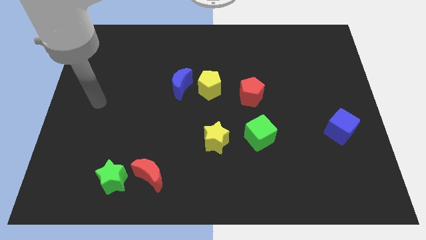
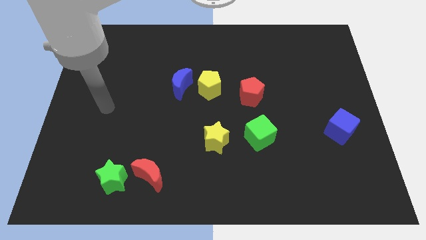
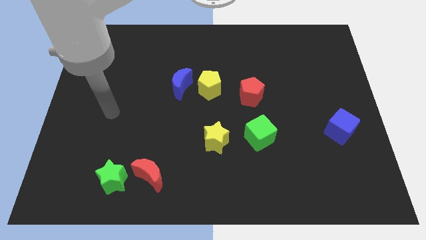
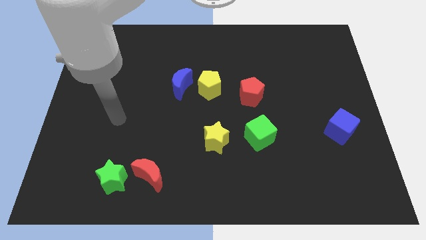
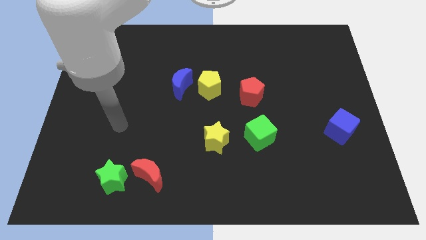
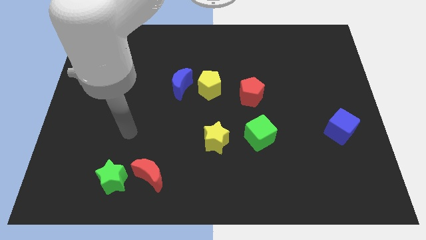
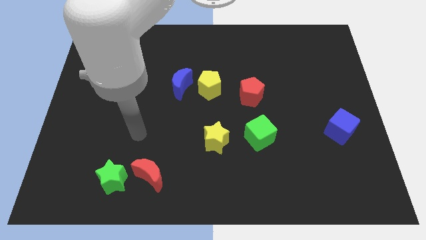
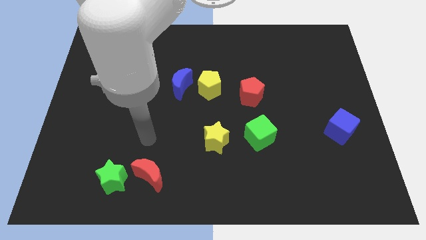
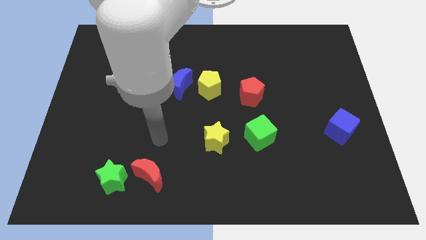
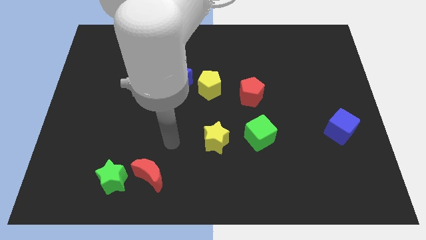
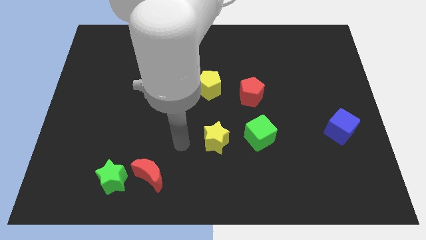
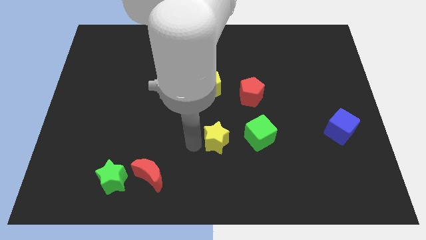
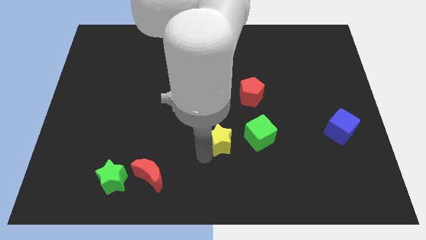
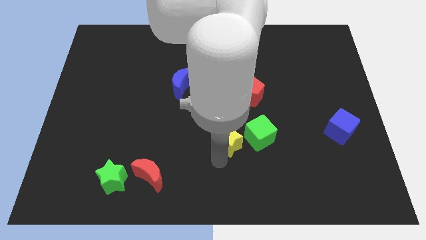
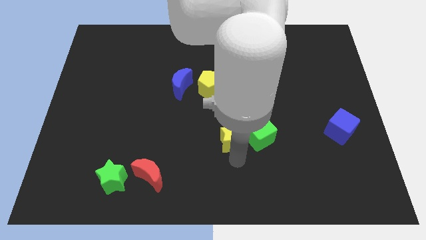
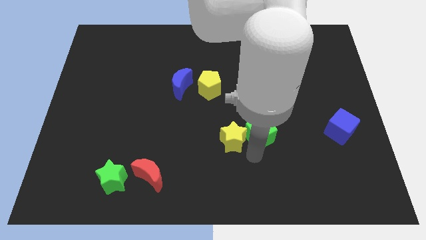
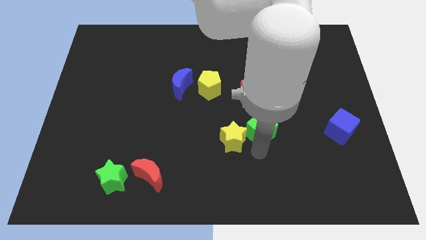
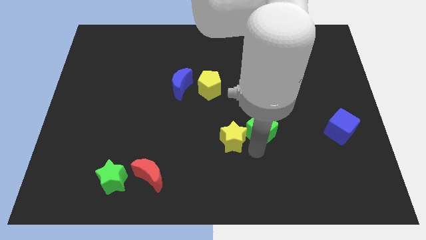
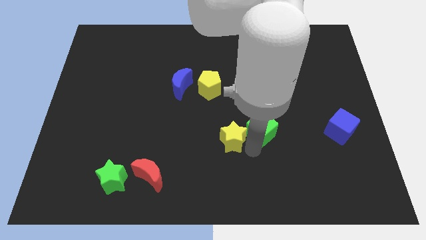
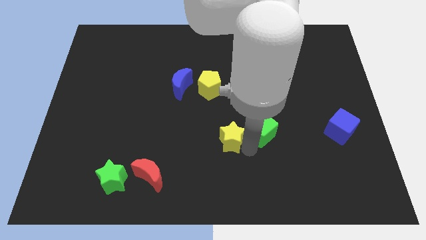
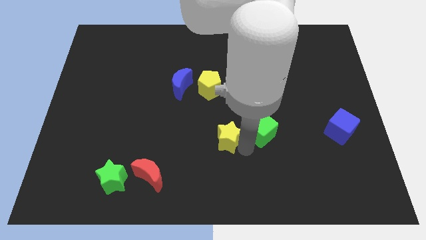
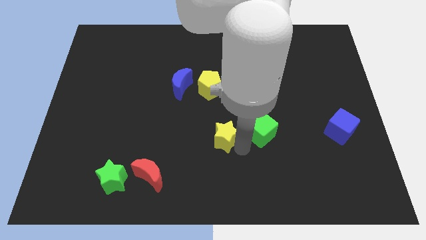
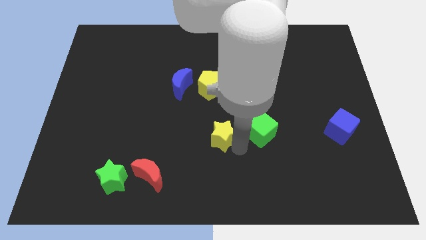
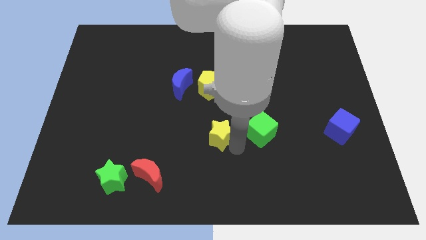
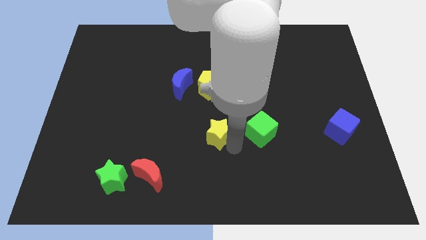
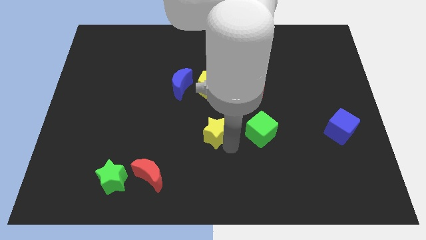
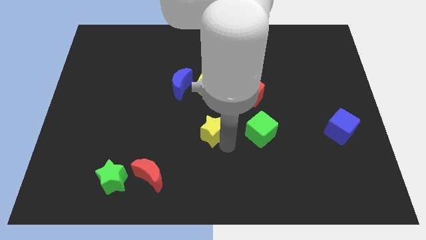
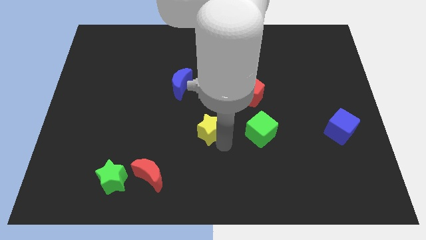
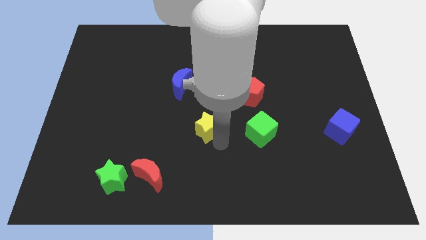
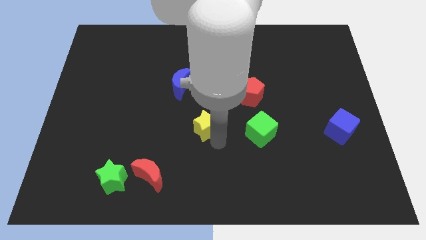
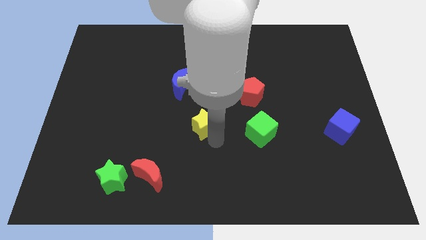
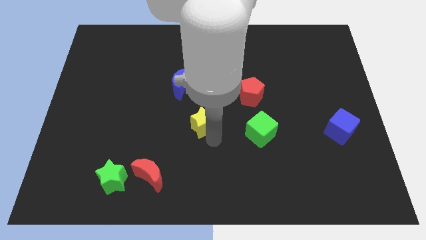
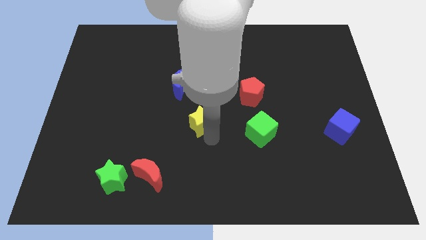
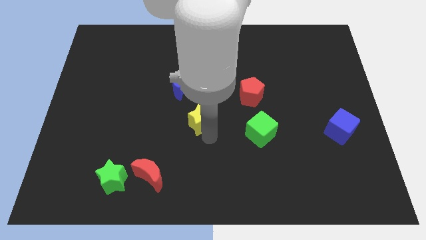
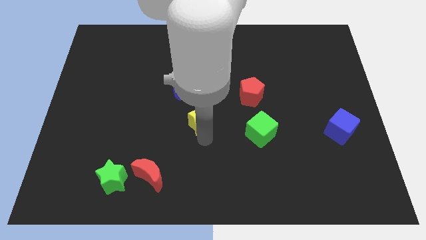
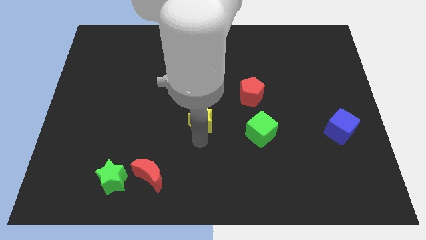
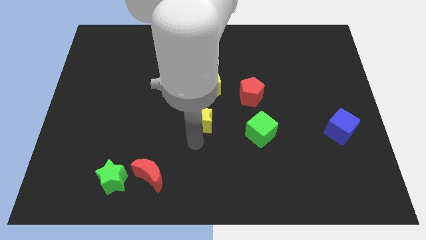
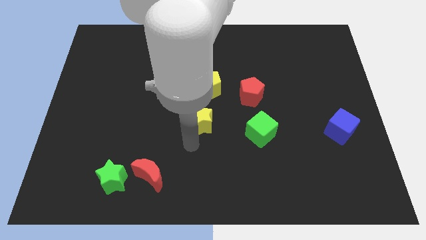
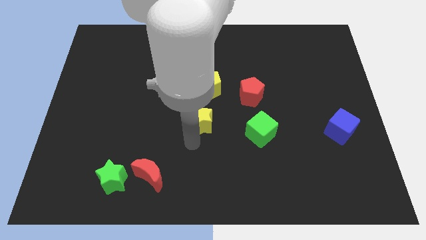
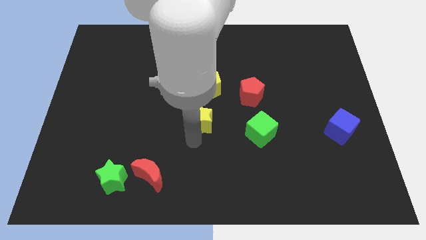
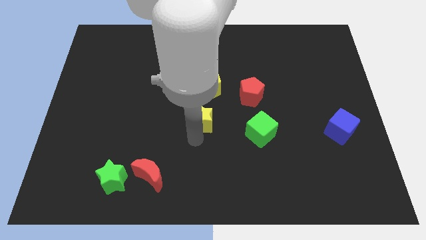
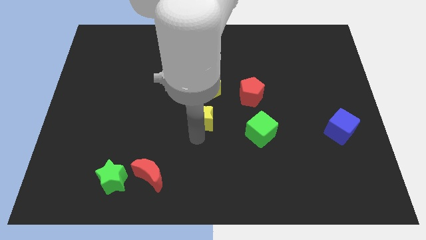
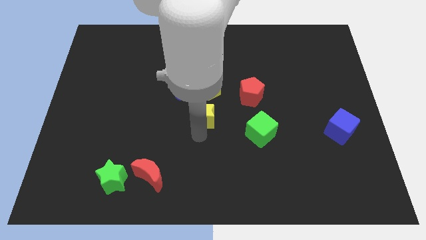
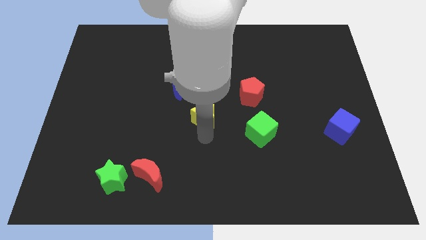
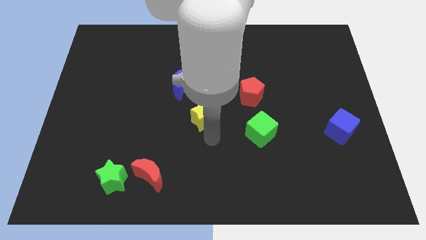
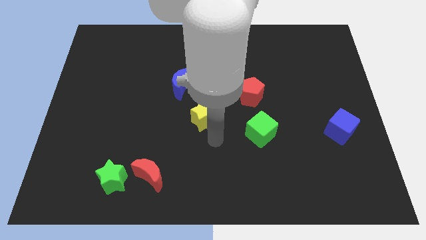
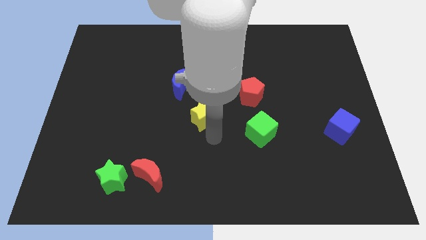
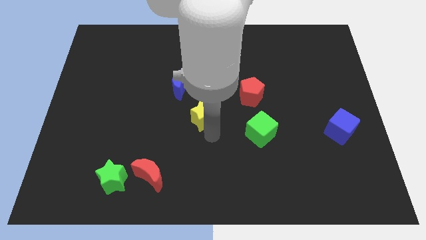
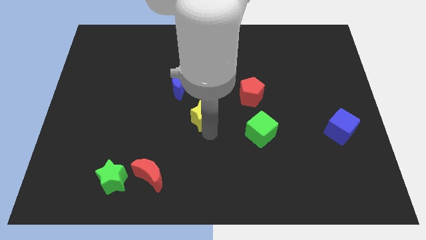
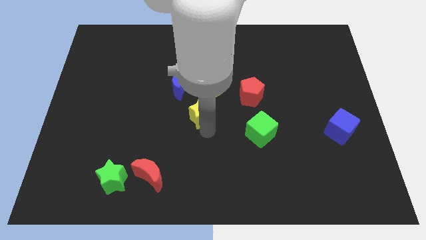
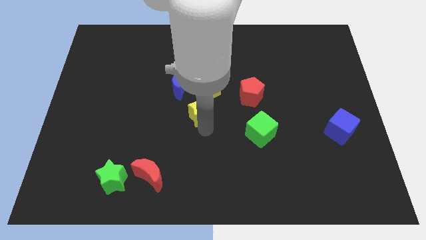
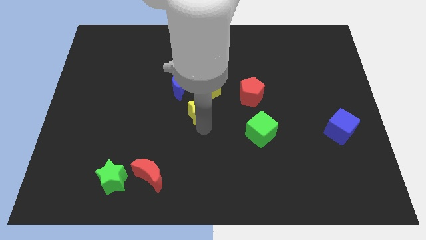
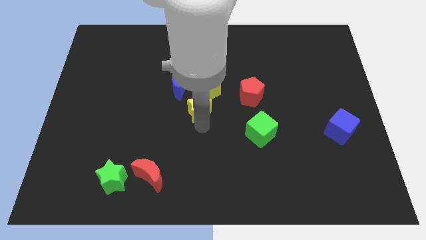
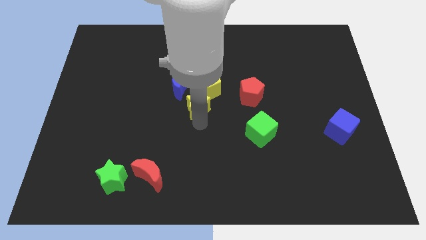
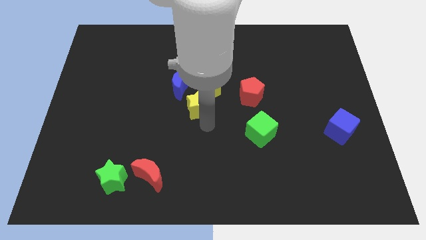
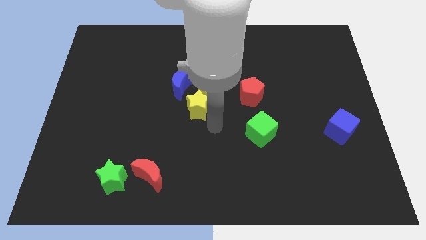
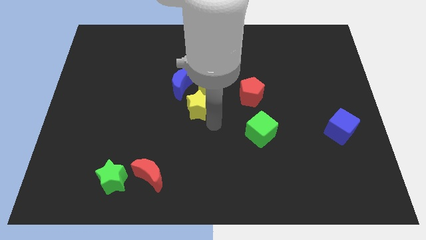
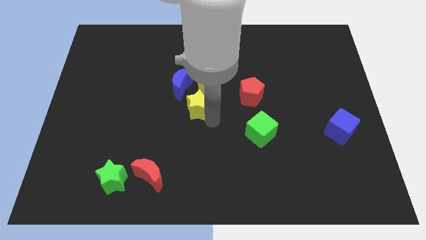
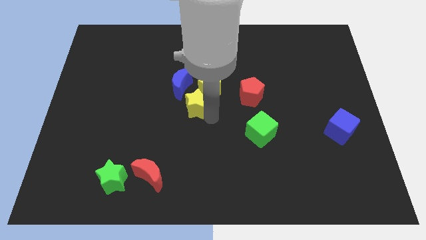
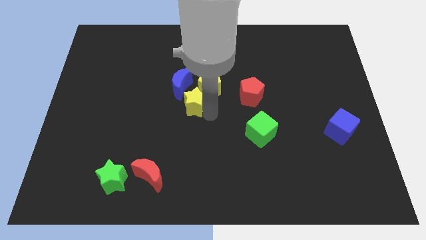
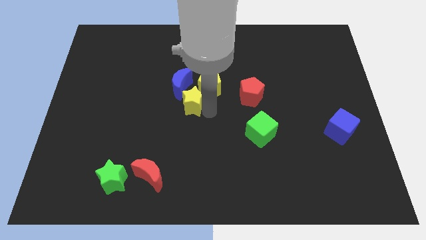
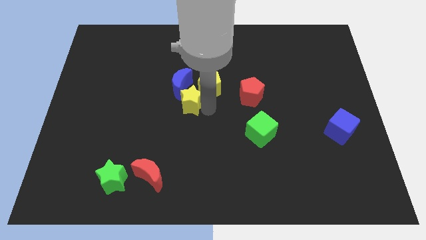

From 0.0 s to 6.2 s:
move the yellow star close to the blue moon
